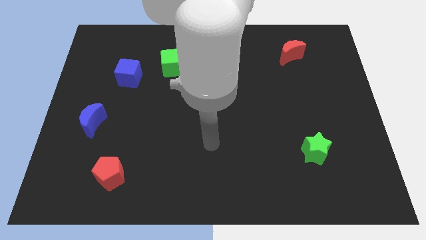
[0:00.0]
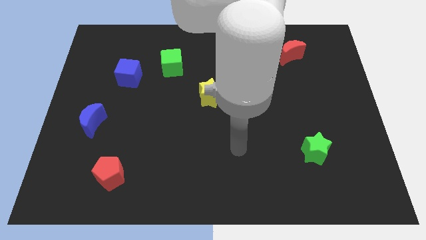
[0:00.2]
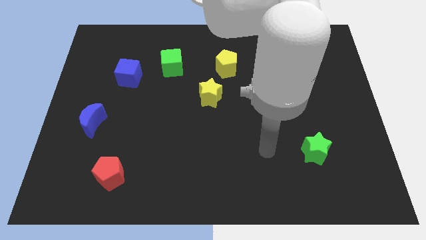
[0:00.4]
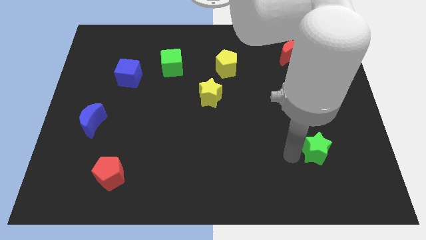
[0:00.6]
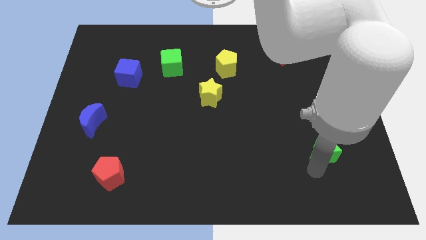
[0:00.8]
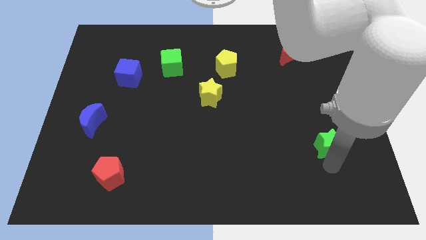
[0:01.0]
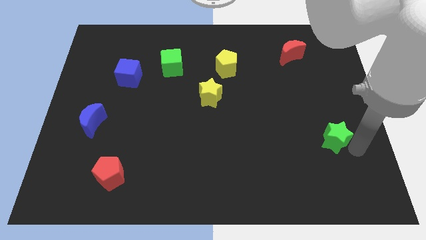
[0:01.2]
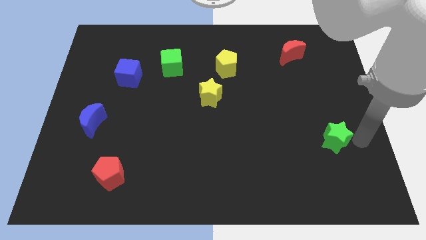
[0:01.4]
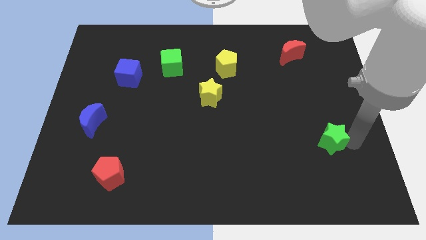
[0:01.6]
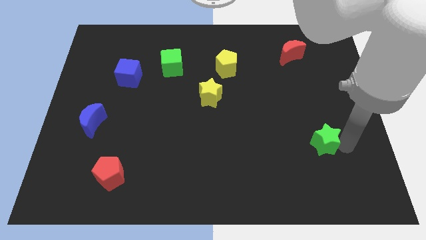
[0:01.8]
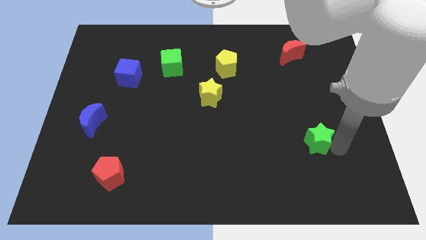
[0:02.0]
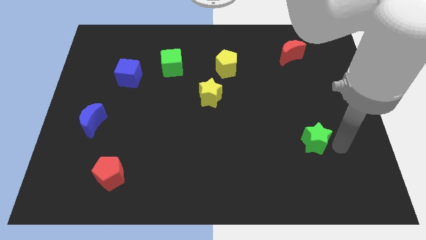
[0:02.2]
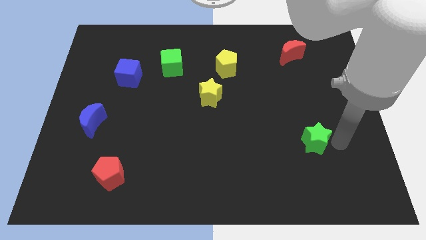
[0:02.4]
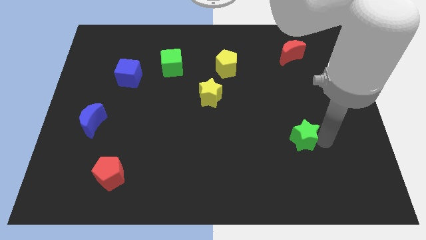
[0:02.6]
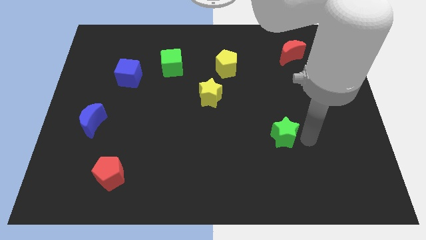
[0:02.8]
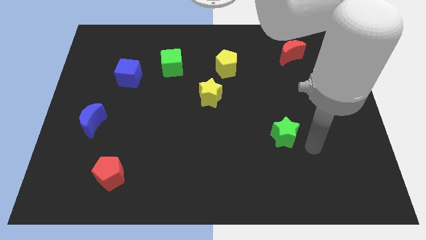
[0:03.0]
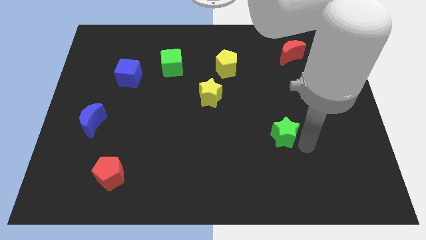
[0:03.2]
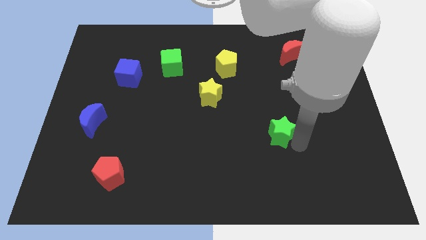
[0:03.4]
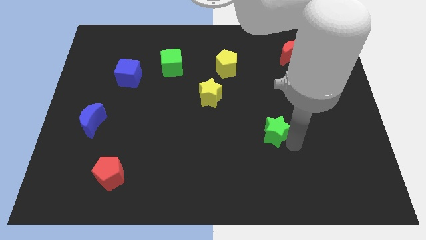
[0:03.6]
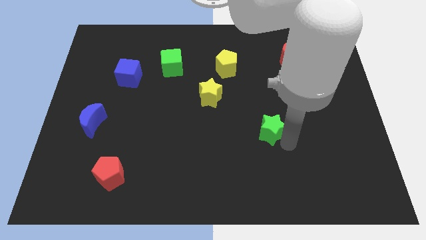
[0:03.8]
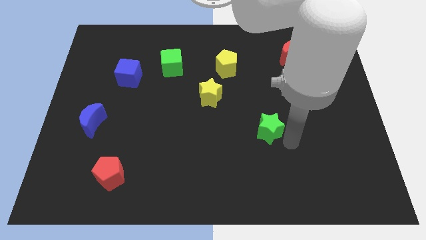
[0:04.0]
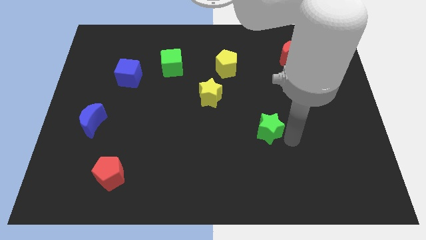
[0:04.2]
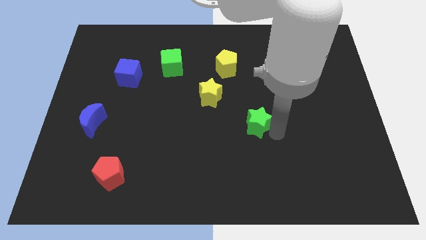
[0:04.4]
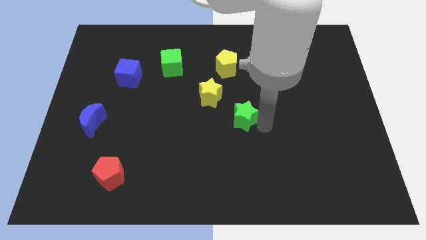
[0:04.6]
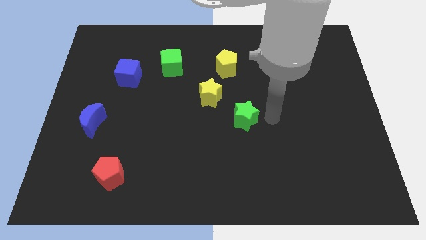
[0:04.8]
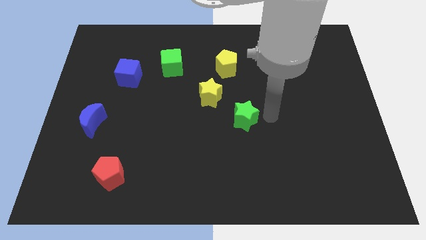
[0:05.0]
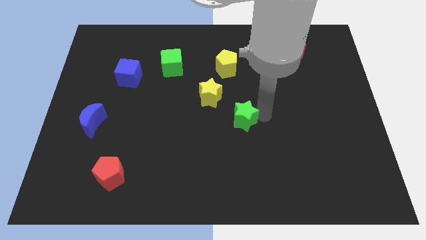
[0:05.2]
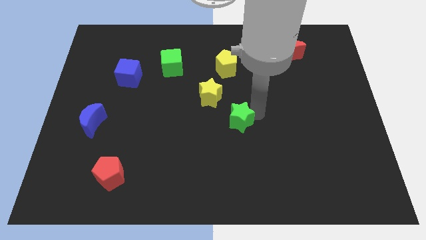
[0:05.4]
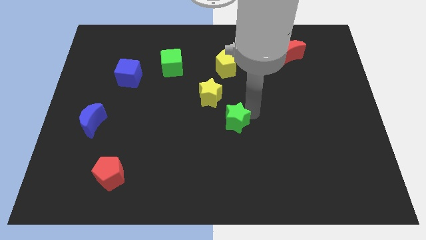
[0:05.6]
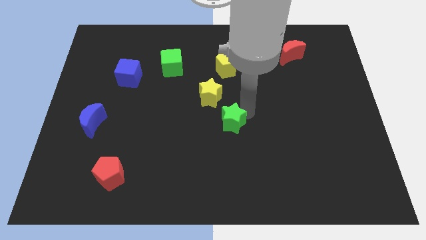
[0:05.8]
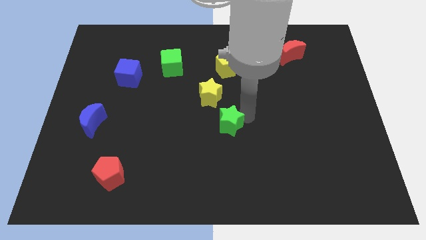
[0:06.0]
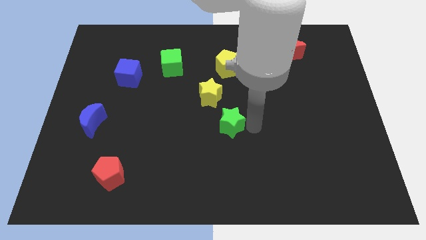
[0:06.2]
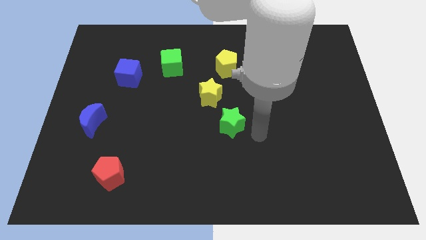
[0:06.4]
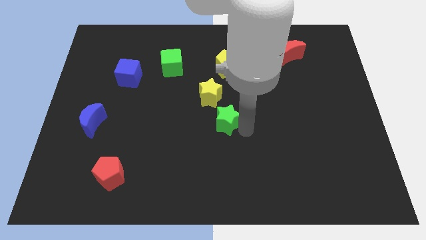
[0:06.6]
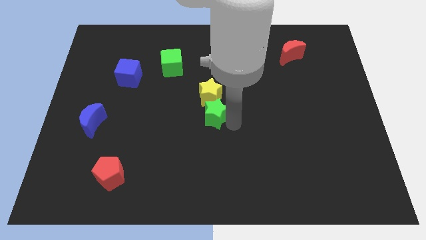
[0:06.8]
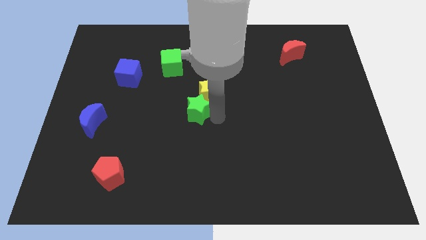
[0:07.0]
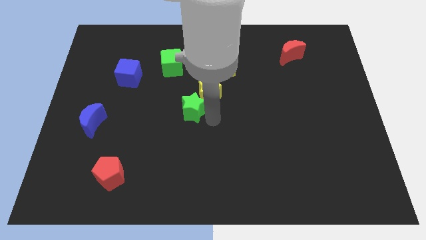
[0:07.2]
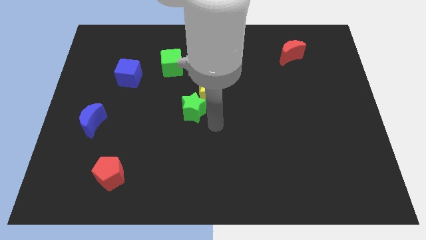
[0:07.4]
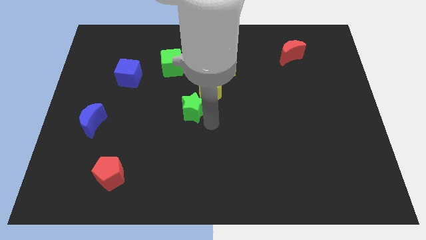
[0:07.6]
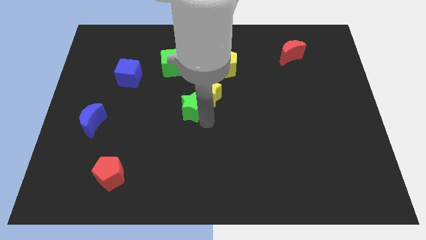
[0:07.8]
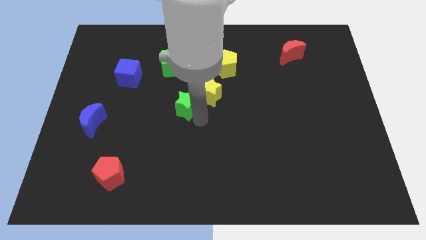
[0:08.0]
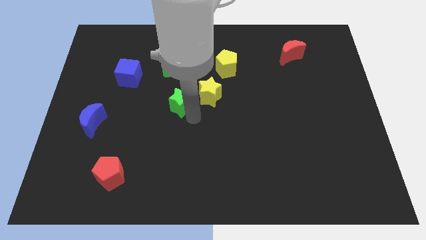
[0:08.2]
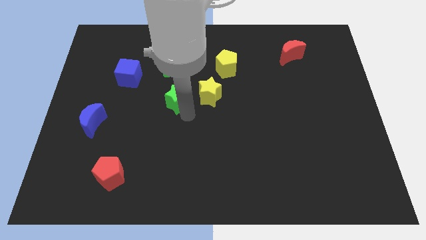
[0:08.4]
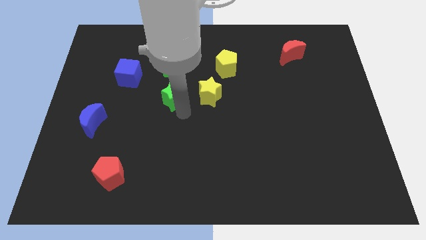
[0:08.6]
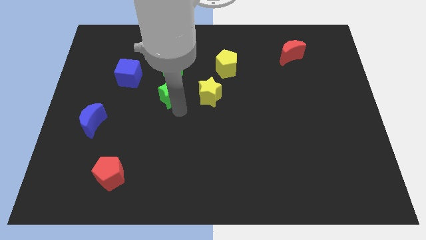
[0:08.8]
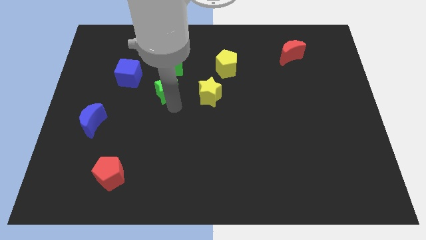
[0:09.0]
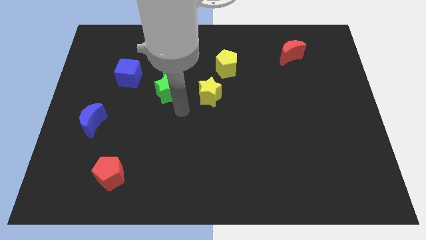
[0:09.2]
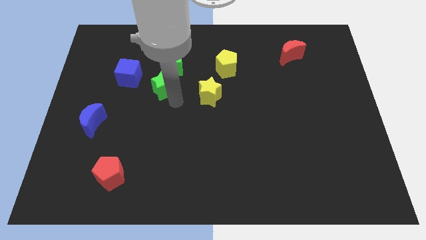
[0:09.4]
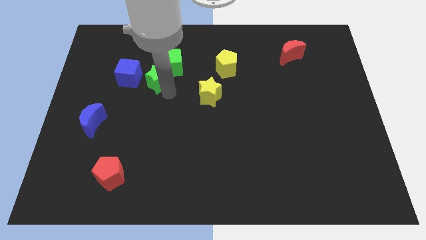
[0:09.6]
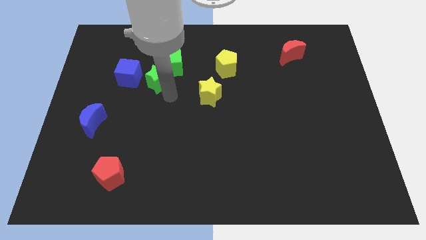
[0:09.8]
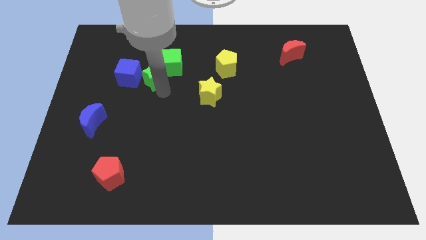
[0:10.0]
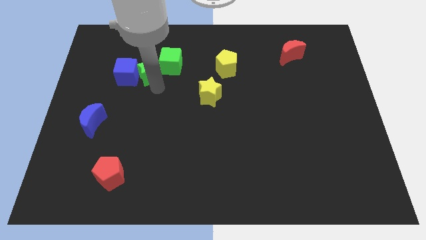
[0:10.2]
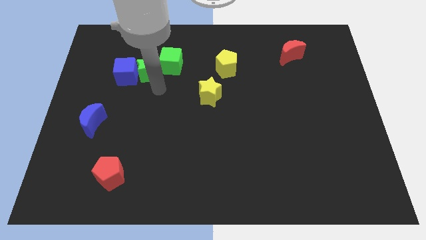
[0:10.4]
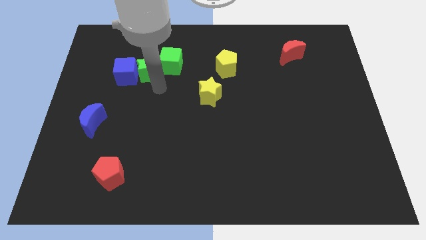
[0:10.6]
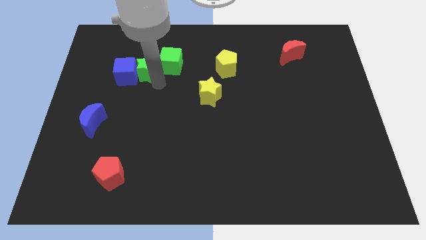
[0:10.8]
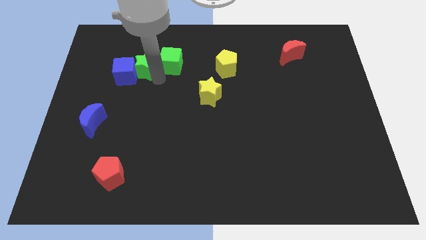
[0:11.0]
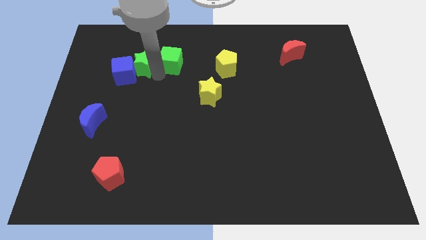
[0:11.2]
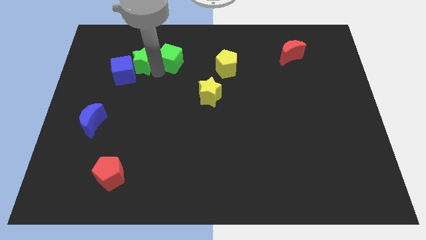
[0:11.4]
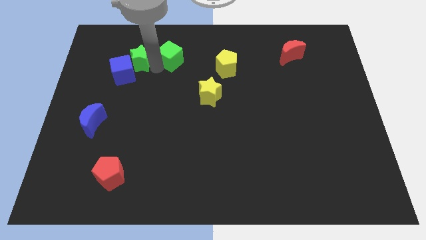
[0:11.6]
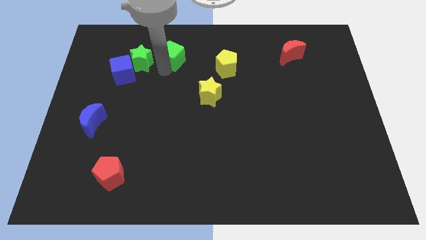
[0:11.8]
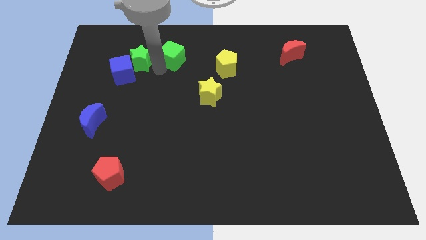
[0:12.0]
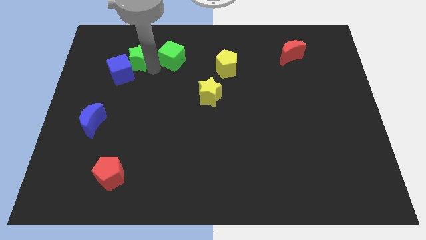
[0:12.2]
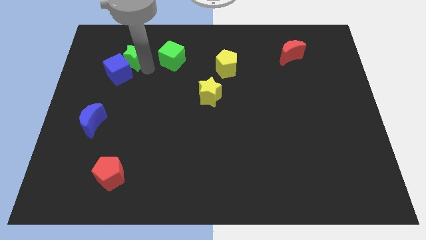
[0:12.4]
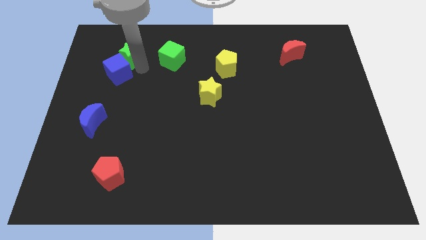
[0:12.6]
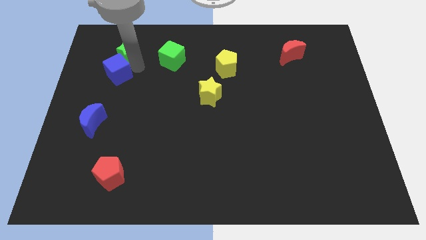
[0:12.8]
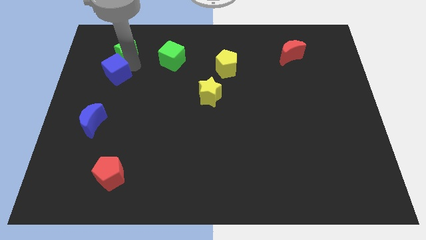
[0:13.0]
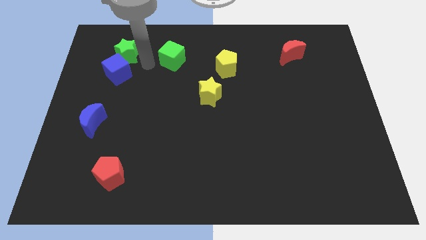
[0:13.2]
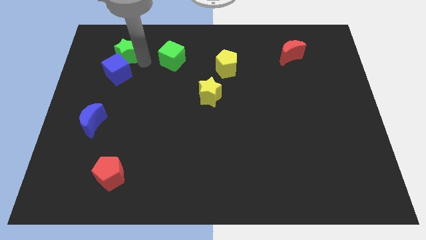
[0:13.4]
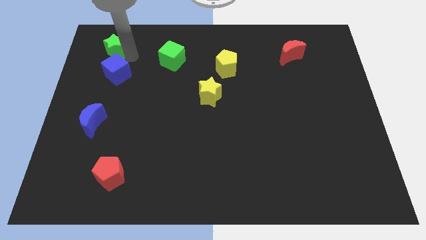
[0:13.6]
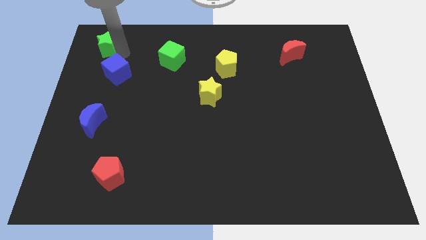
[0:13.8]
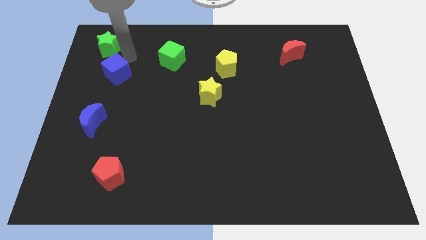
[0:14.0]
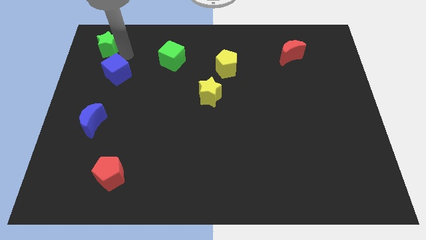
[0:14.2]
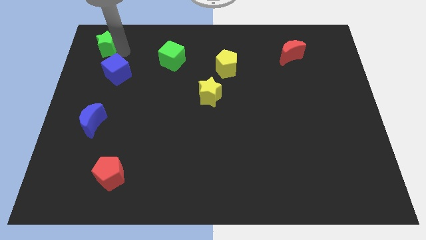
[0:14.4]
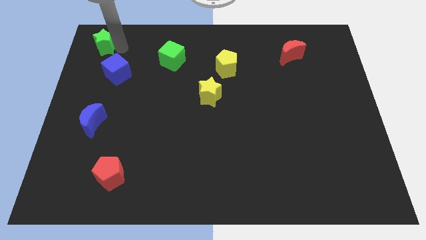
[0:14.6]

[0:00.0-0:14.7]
push the green star to the upper left corner
